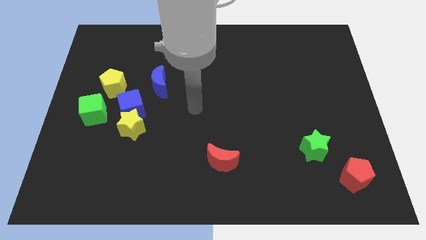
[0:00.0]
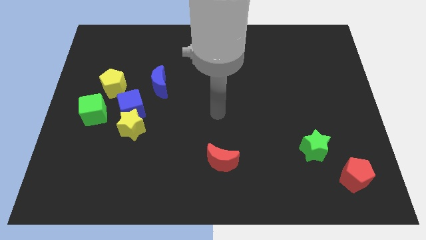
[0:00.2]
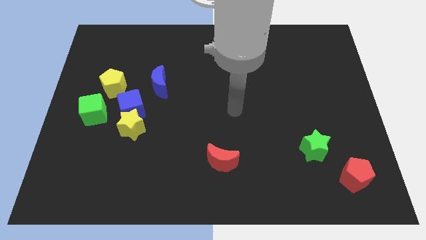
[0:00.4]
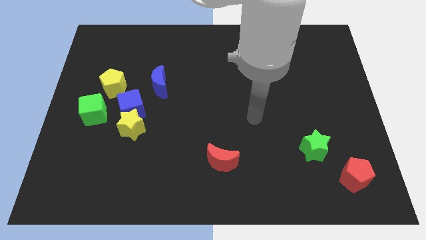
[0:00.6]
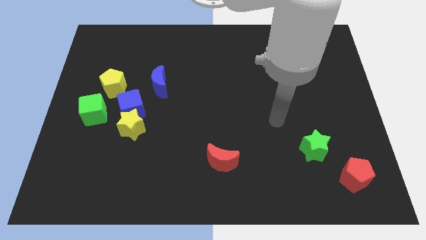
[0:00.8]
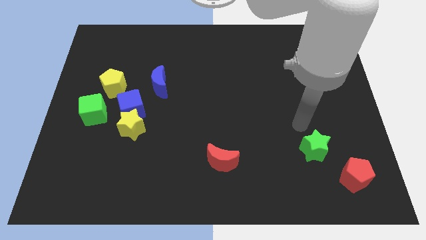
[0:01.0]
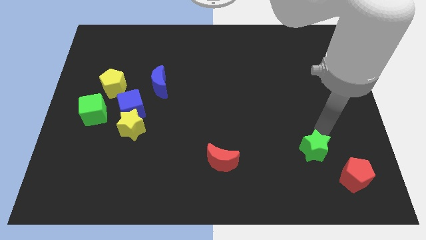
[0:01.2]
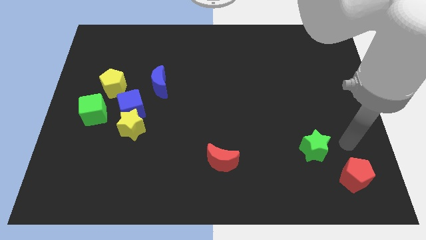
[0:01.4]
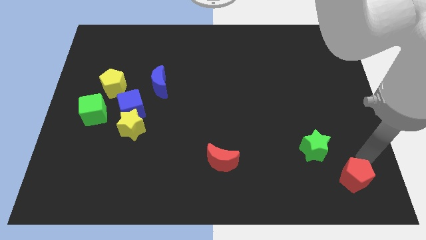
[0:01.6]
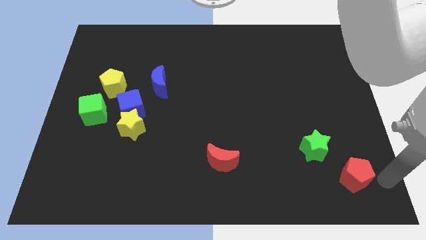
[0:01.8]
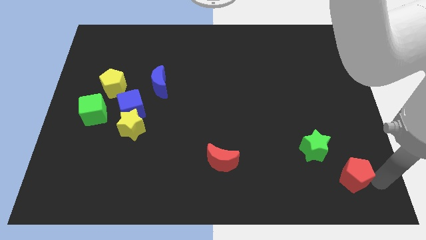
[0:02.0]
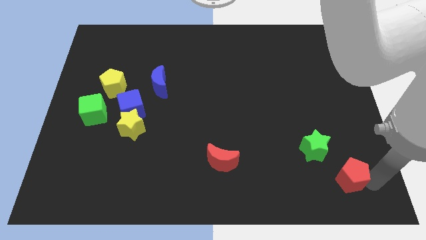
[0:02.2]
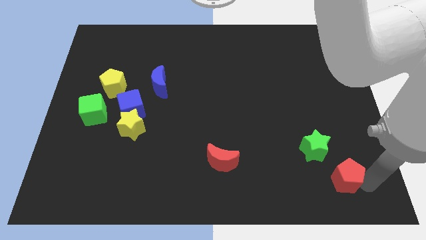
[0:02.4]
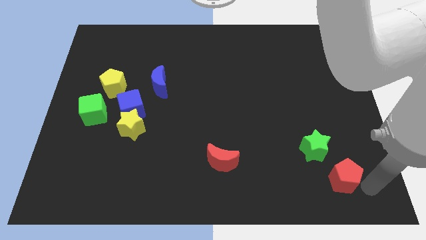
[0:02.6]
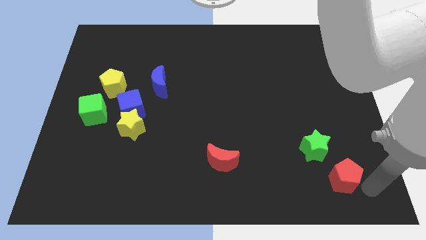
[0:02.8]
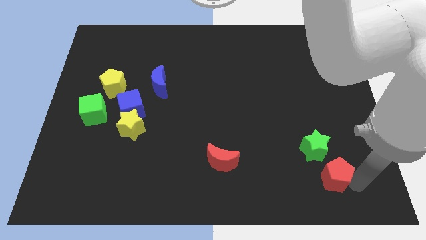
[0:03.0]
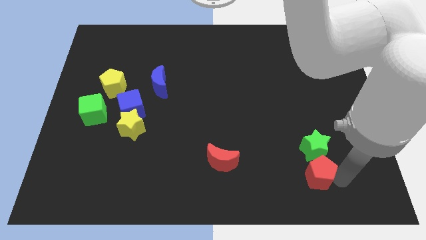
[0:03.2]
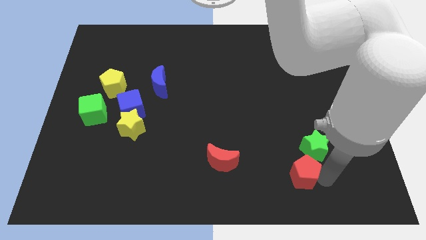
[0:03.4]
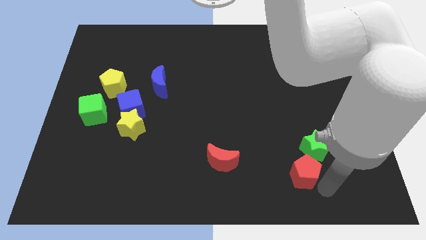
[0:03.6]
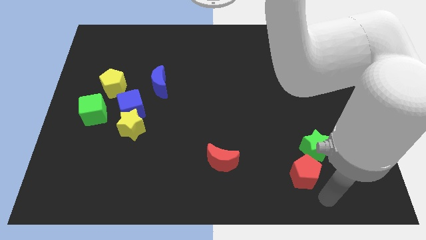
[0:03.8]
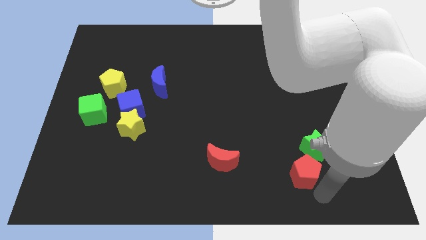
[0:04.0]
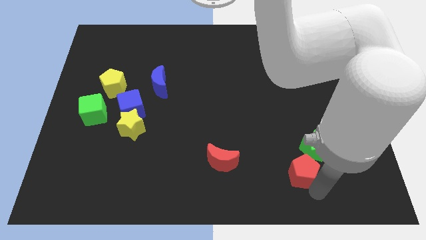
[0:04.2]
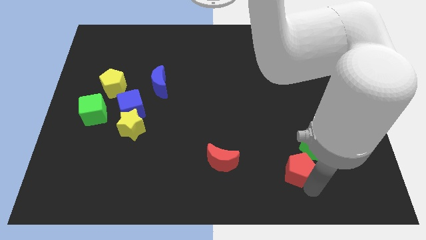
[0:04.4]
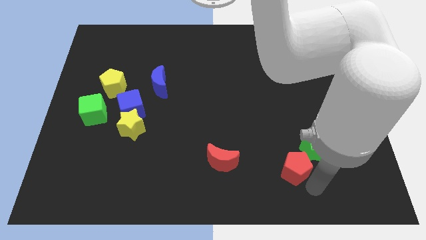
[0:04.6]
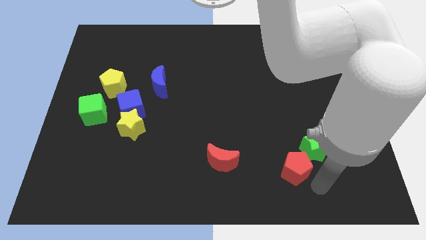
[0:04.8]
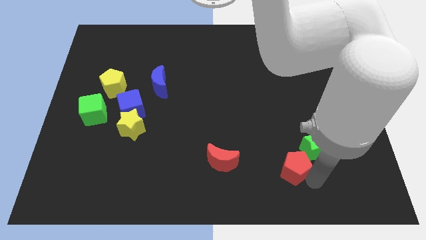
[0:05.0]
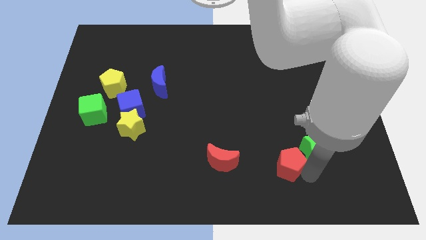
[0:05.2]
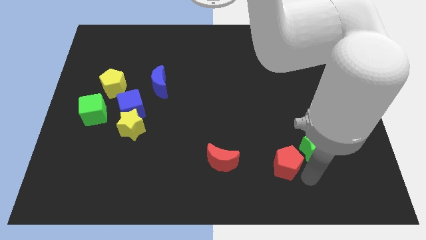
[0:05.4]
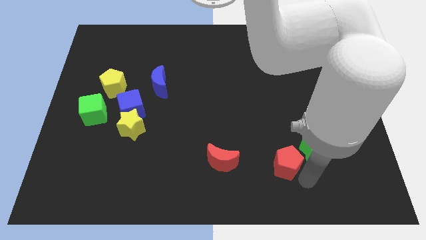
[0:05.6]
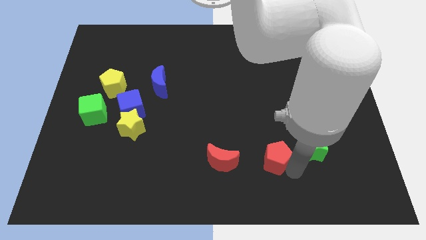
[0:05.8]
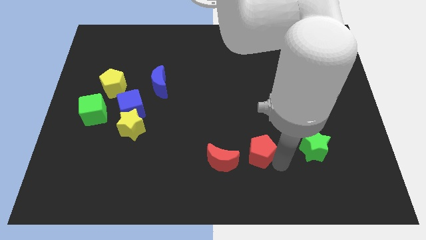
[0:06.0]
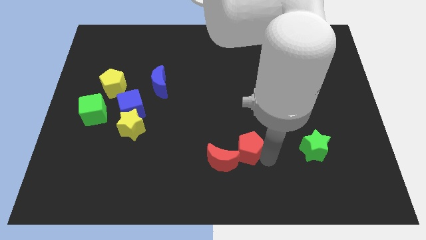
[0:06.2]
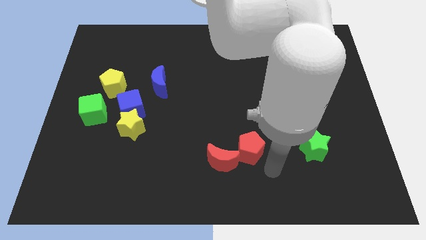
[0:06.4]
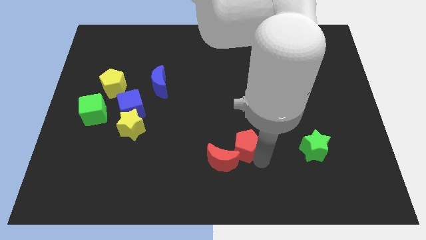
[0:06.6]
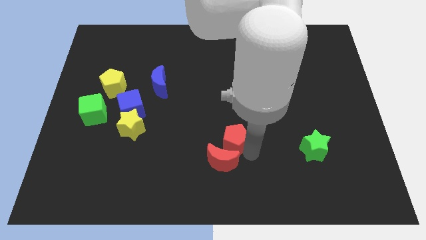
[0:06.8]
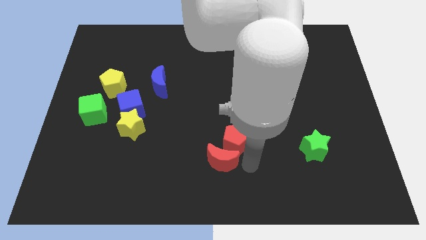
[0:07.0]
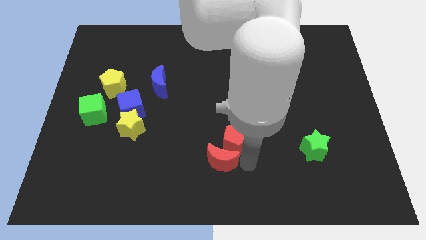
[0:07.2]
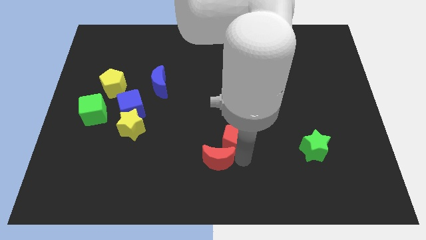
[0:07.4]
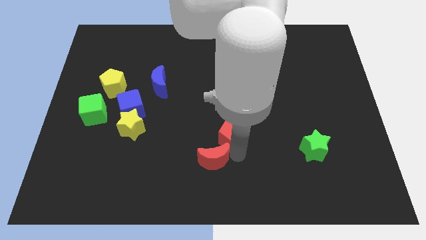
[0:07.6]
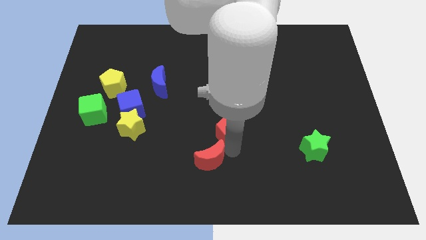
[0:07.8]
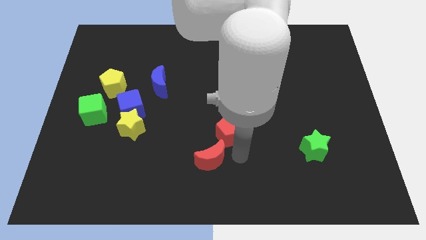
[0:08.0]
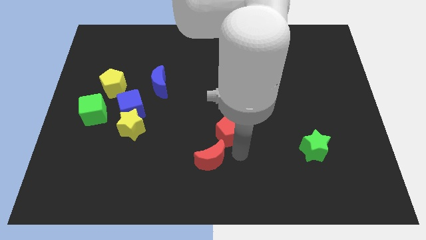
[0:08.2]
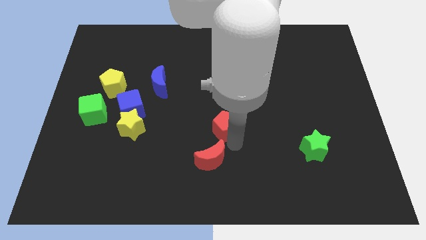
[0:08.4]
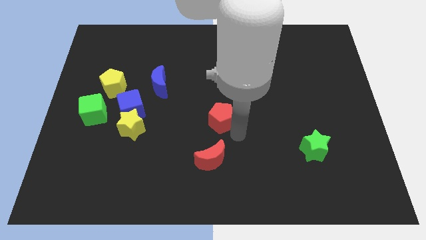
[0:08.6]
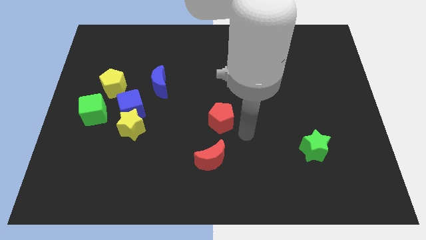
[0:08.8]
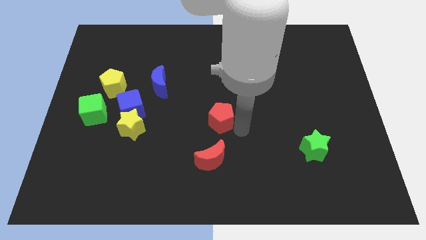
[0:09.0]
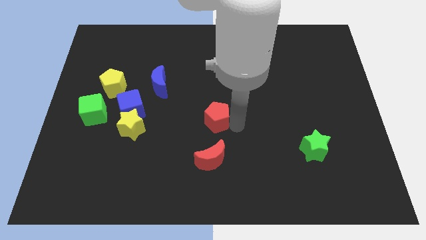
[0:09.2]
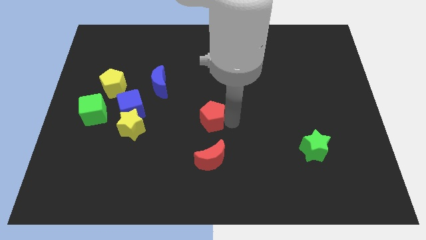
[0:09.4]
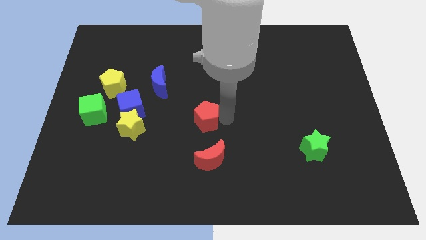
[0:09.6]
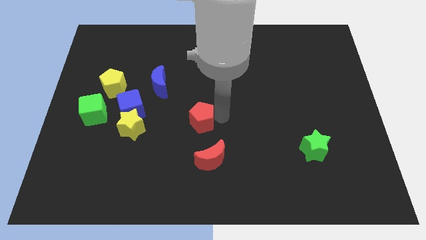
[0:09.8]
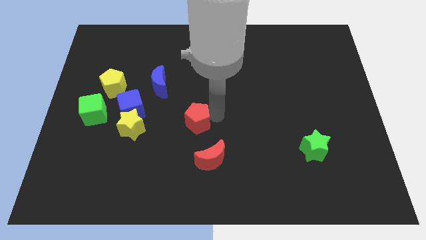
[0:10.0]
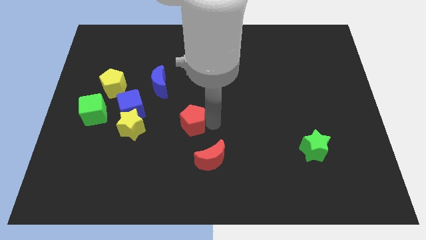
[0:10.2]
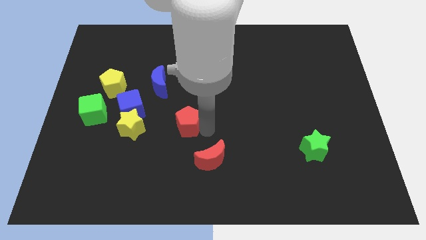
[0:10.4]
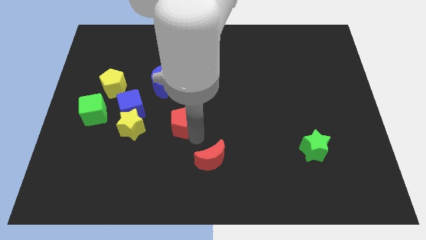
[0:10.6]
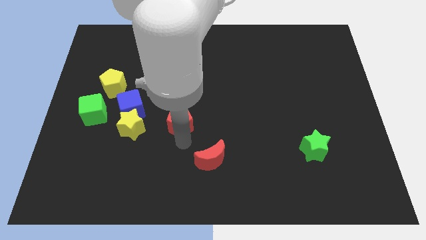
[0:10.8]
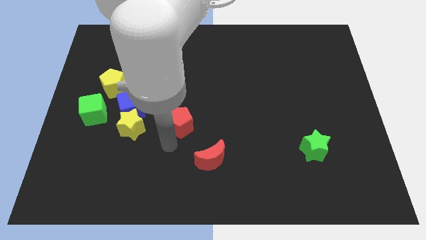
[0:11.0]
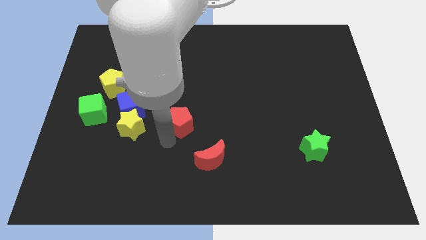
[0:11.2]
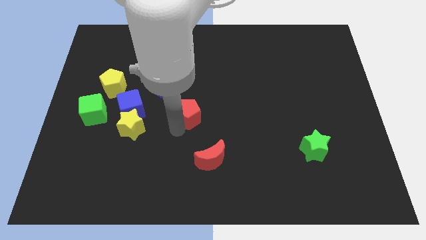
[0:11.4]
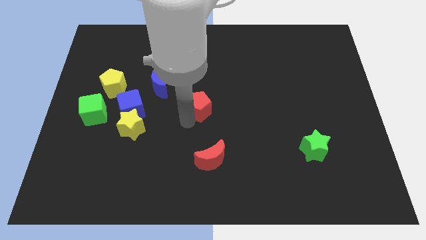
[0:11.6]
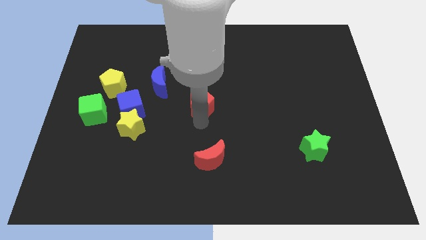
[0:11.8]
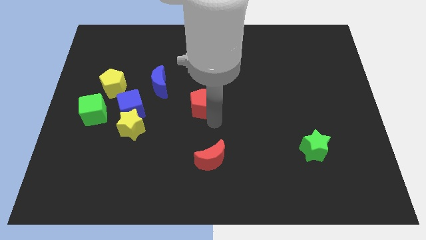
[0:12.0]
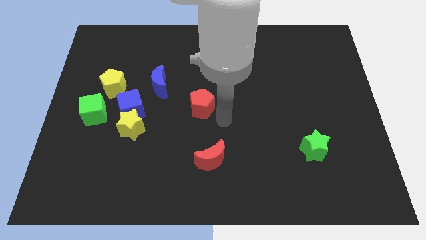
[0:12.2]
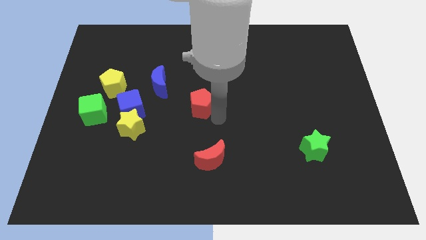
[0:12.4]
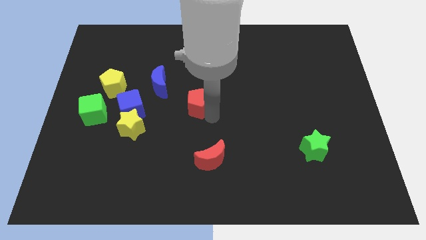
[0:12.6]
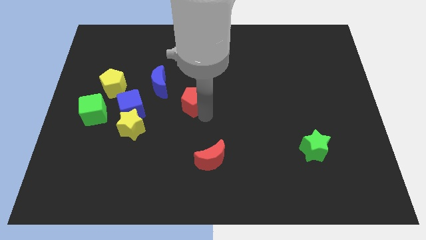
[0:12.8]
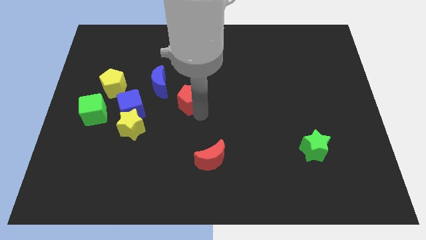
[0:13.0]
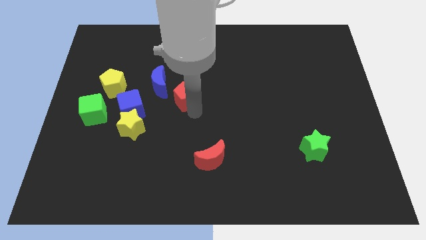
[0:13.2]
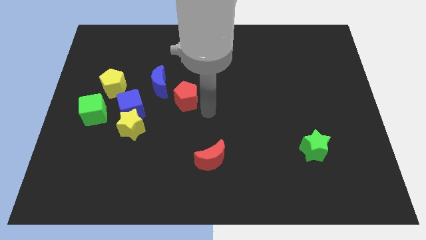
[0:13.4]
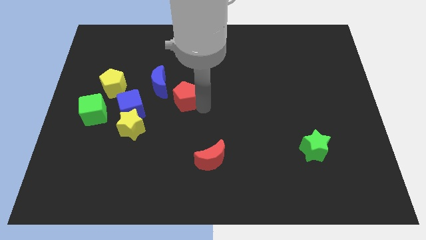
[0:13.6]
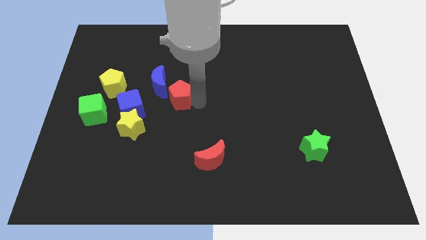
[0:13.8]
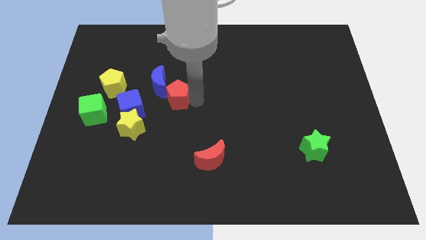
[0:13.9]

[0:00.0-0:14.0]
push the red pentagon next to the blue moon

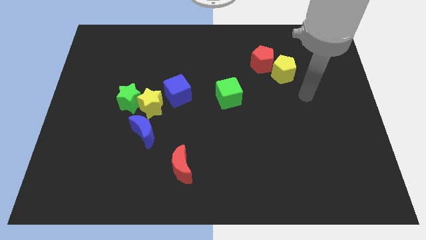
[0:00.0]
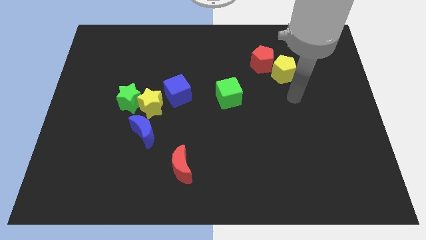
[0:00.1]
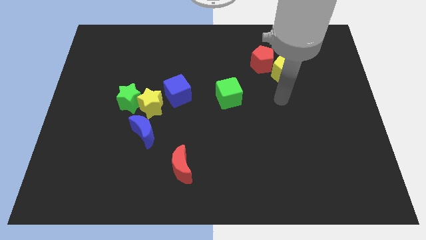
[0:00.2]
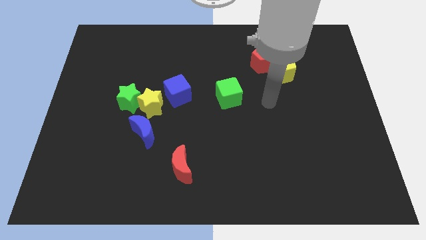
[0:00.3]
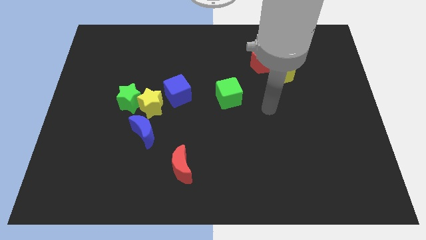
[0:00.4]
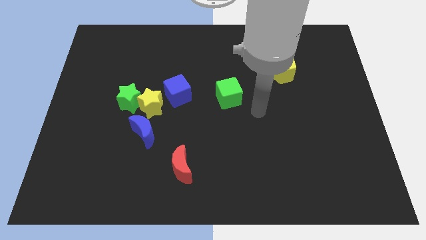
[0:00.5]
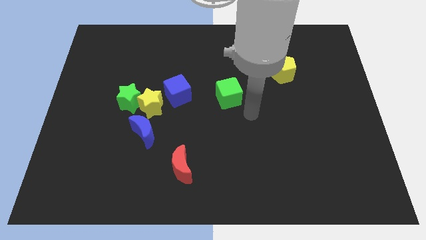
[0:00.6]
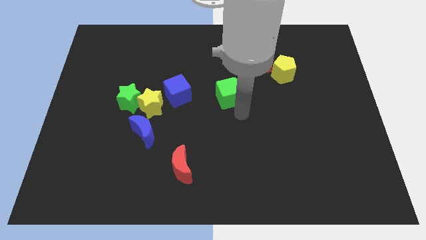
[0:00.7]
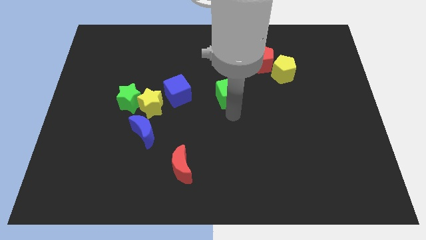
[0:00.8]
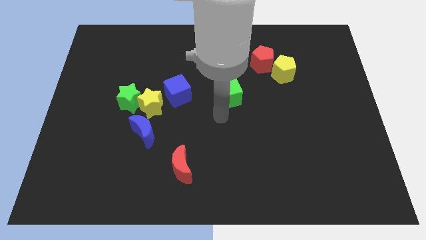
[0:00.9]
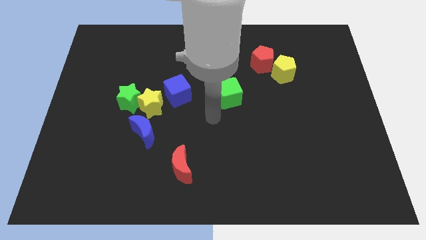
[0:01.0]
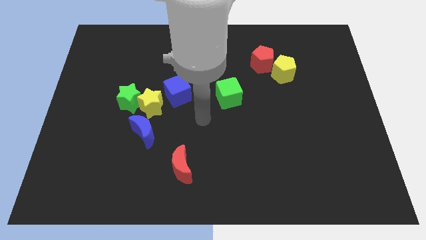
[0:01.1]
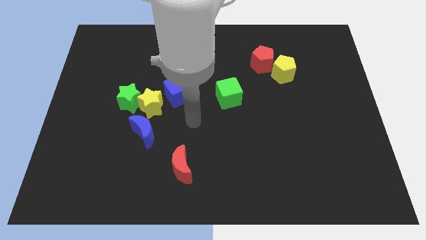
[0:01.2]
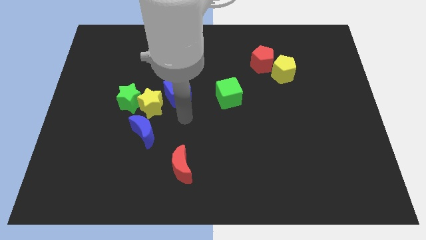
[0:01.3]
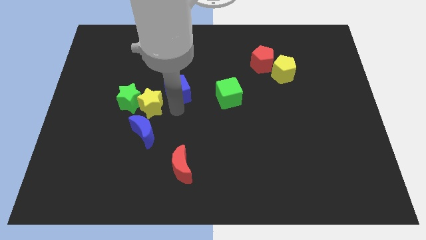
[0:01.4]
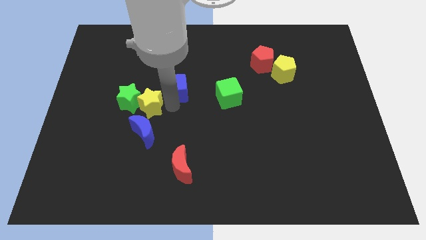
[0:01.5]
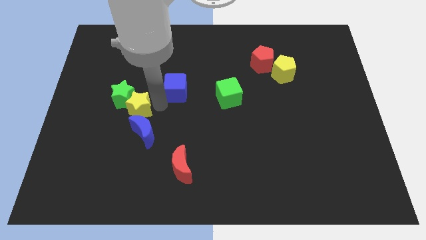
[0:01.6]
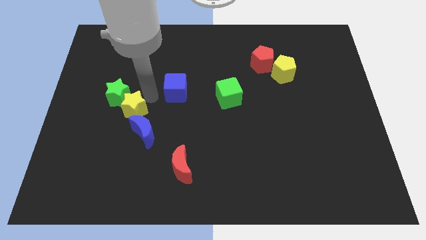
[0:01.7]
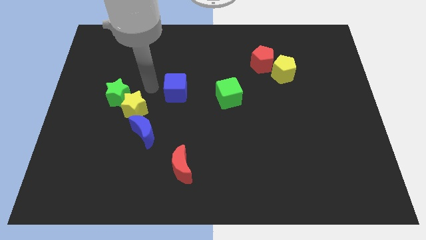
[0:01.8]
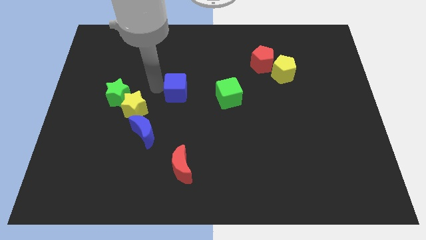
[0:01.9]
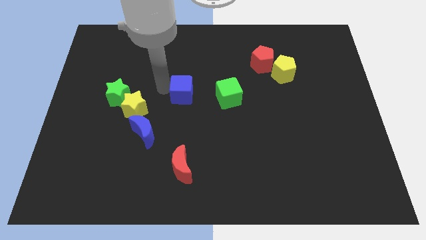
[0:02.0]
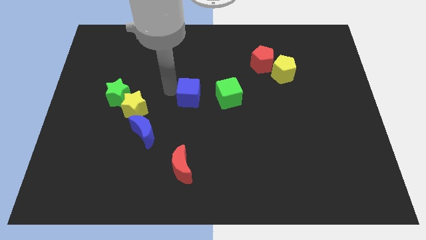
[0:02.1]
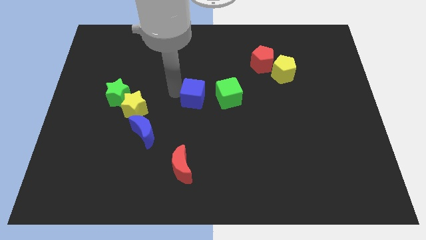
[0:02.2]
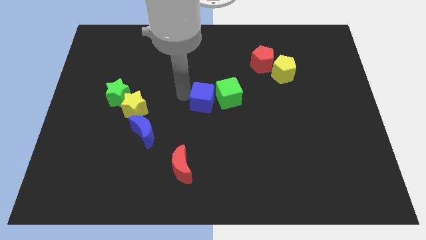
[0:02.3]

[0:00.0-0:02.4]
move the blue cube next to the green cube
